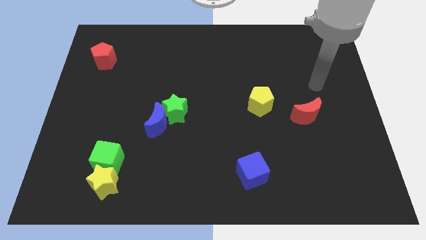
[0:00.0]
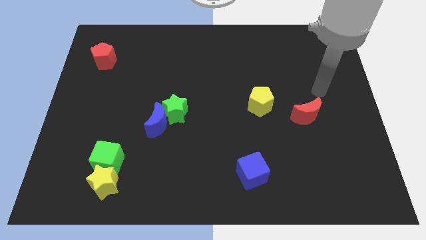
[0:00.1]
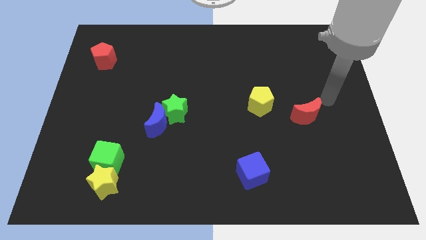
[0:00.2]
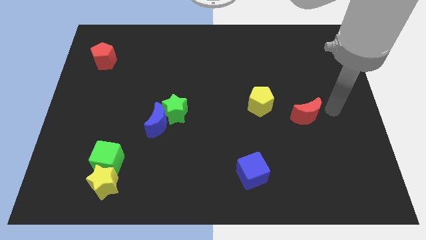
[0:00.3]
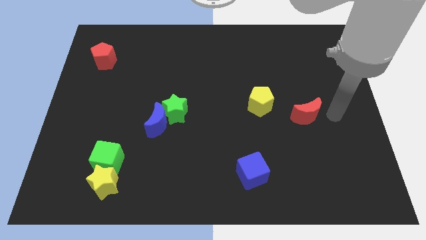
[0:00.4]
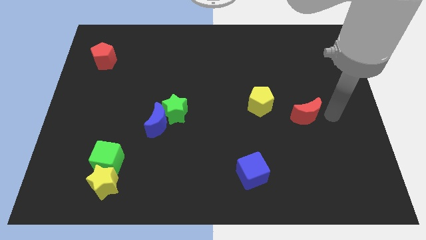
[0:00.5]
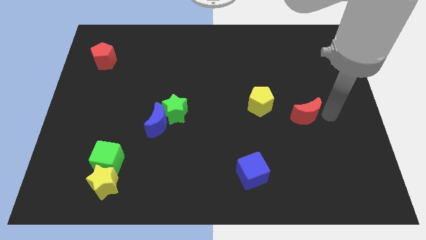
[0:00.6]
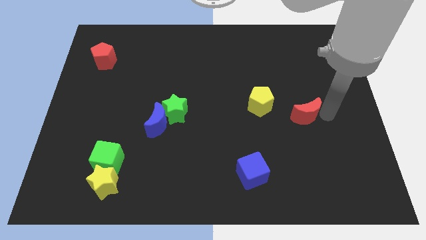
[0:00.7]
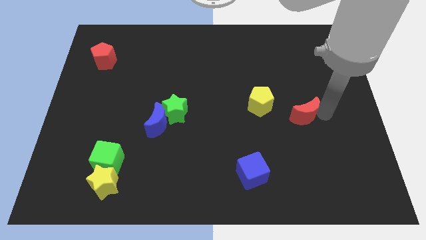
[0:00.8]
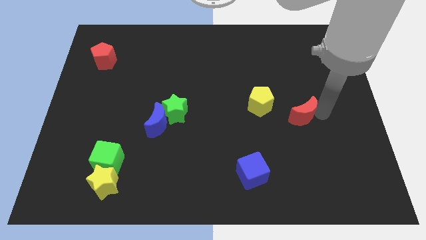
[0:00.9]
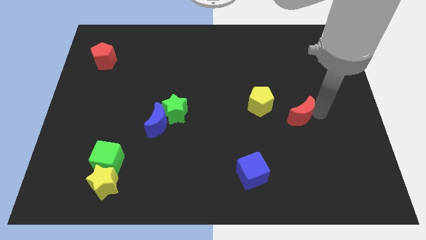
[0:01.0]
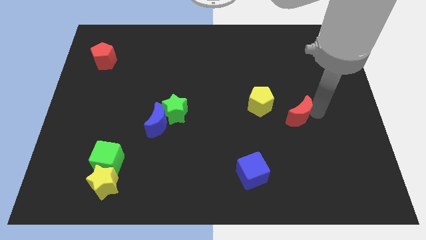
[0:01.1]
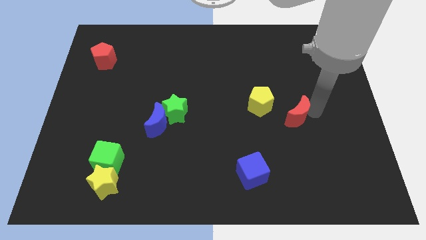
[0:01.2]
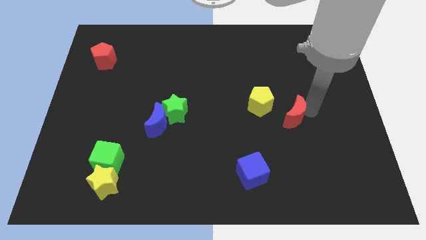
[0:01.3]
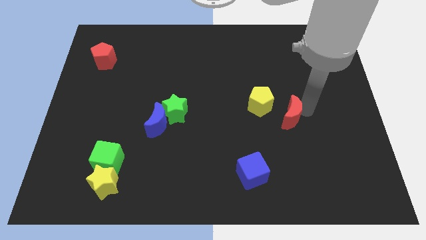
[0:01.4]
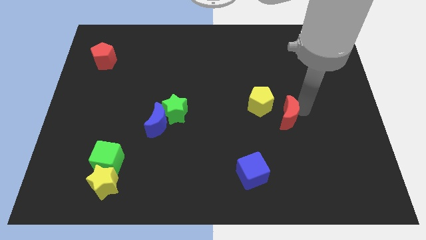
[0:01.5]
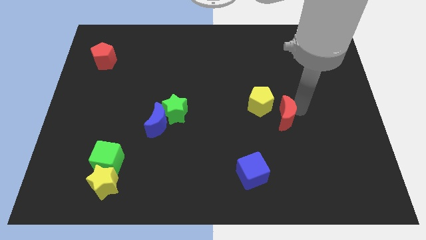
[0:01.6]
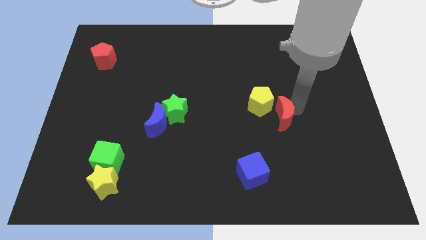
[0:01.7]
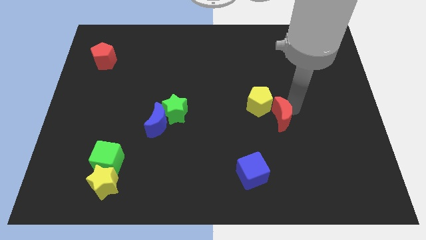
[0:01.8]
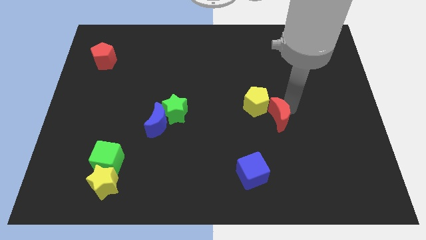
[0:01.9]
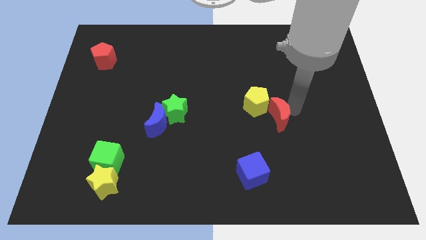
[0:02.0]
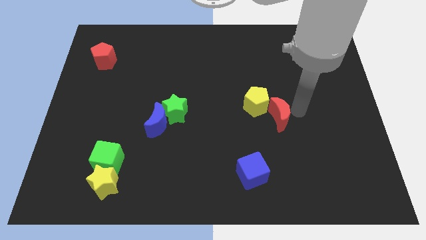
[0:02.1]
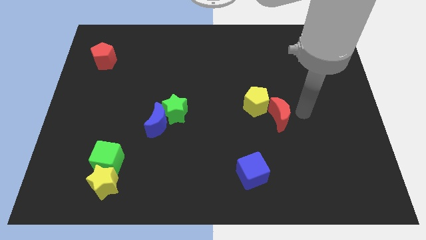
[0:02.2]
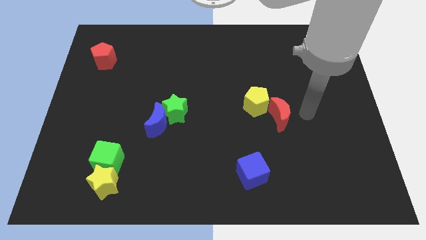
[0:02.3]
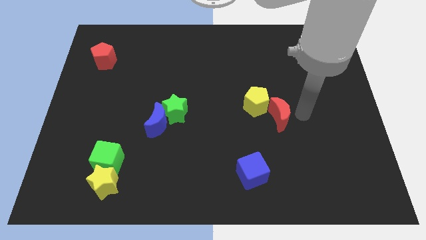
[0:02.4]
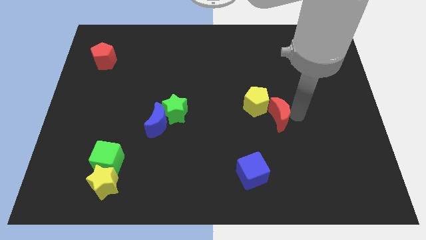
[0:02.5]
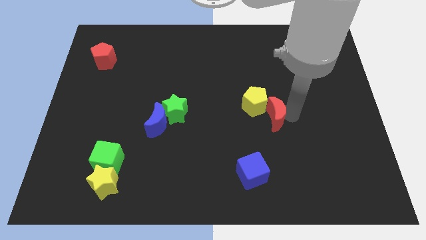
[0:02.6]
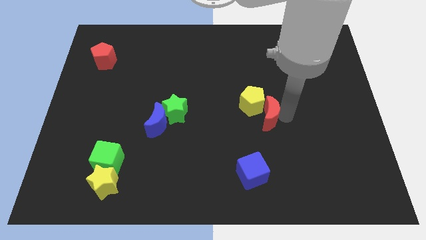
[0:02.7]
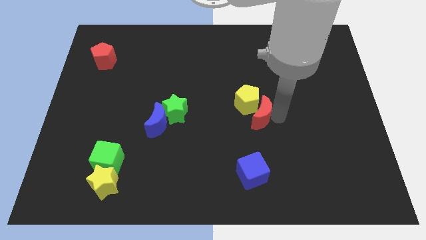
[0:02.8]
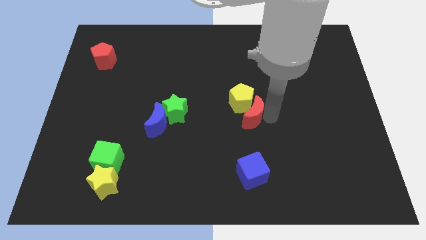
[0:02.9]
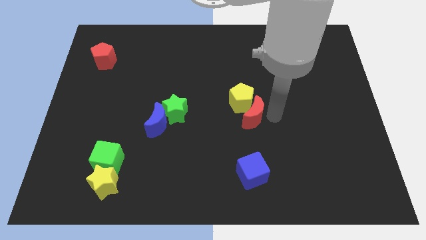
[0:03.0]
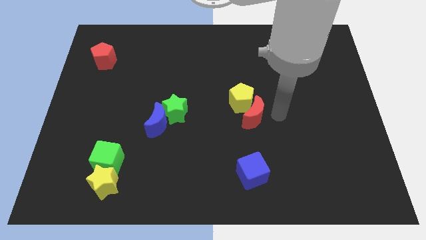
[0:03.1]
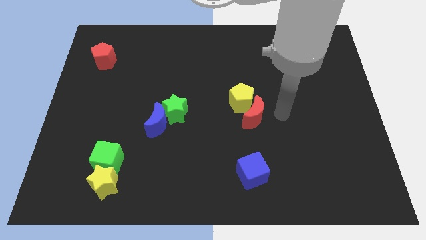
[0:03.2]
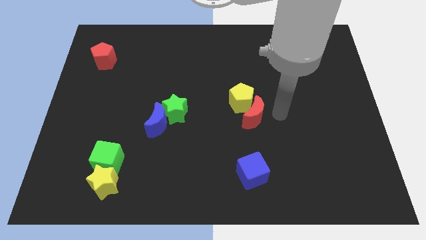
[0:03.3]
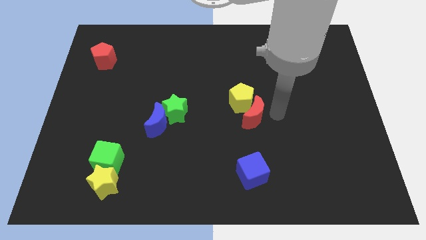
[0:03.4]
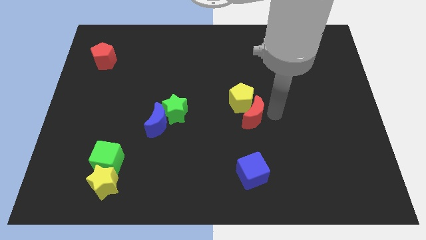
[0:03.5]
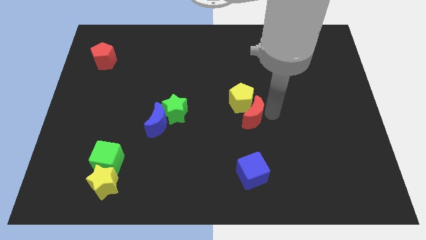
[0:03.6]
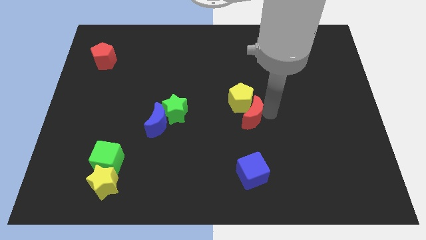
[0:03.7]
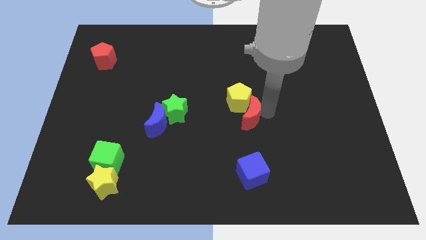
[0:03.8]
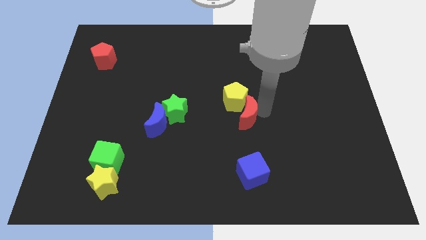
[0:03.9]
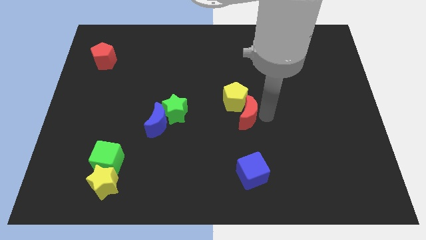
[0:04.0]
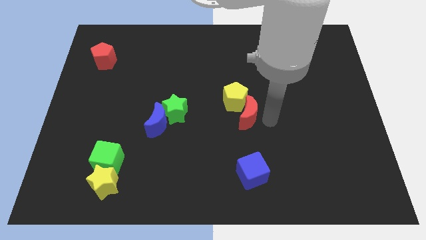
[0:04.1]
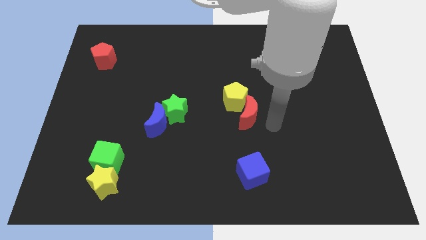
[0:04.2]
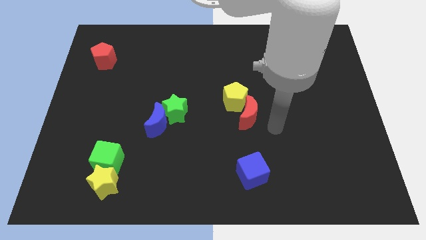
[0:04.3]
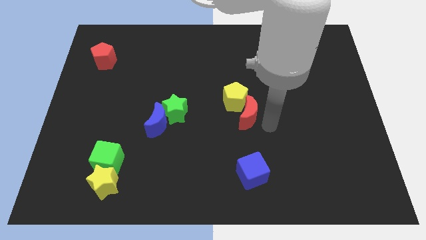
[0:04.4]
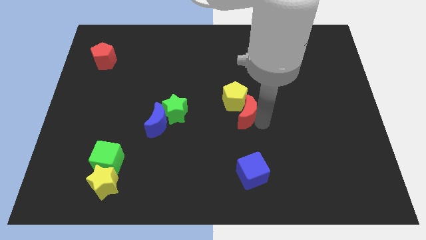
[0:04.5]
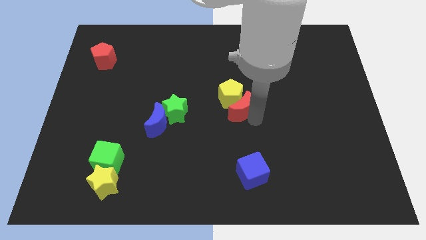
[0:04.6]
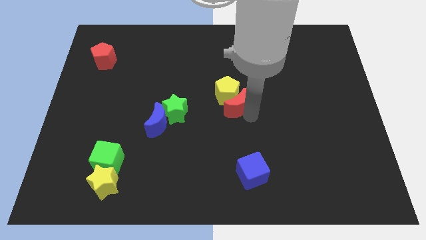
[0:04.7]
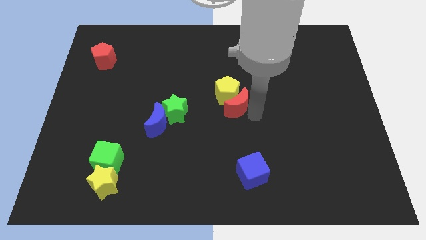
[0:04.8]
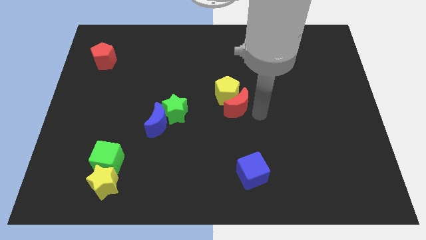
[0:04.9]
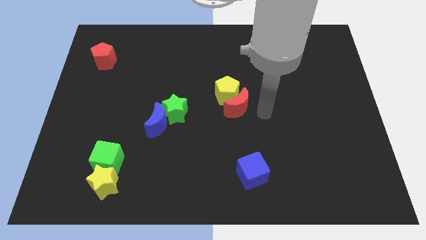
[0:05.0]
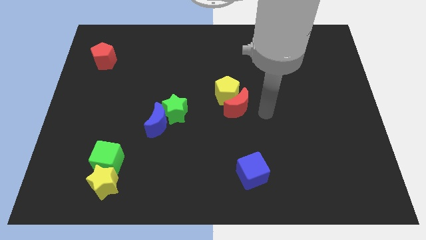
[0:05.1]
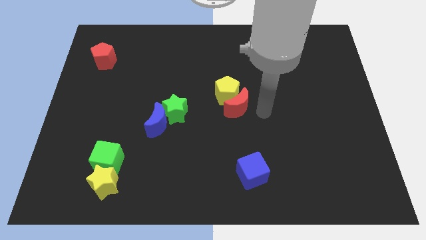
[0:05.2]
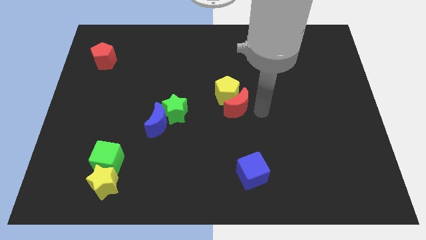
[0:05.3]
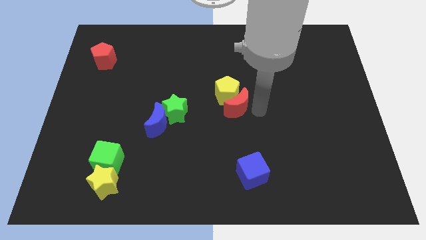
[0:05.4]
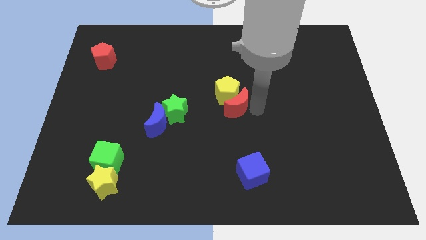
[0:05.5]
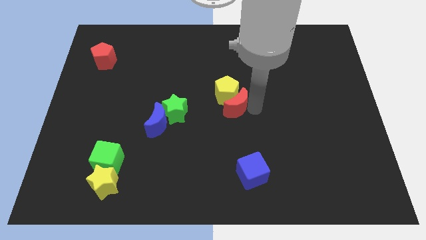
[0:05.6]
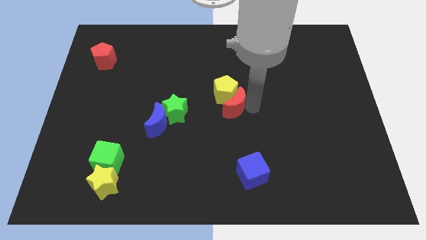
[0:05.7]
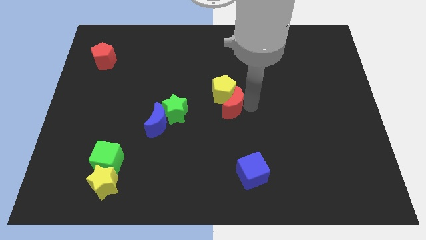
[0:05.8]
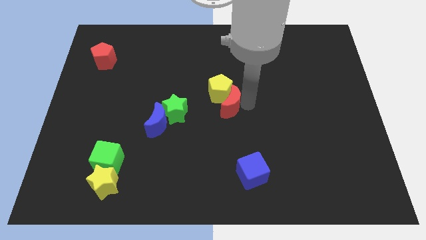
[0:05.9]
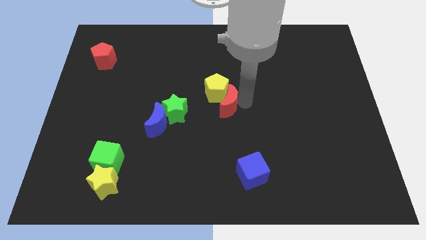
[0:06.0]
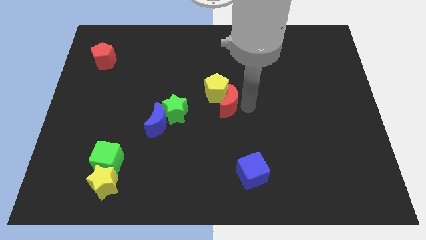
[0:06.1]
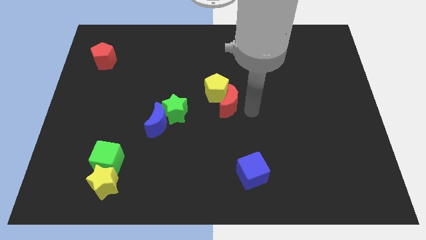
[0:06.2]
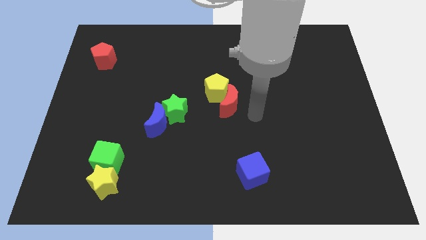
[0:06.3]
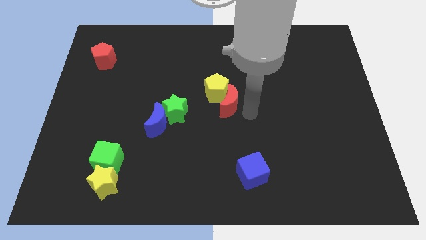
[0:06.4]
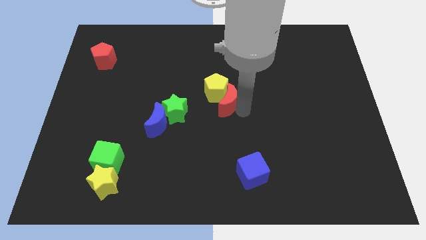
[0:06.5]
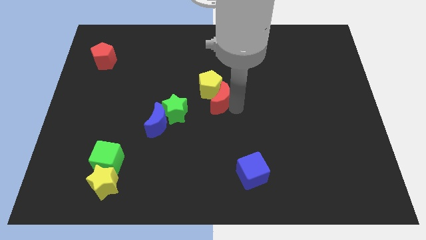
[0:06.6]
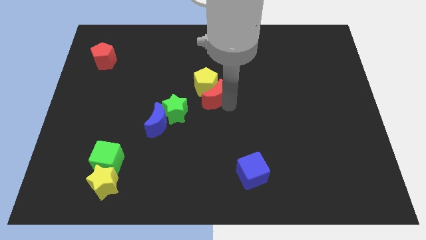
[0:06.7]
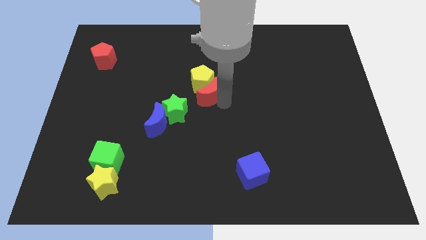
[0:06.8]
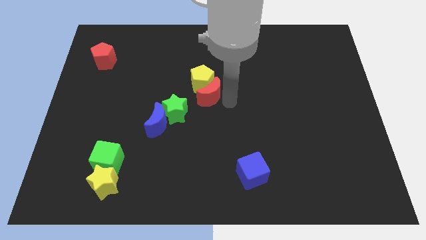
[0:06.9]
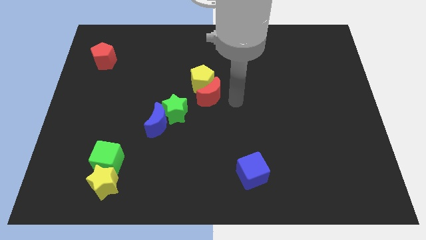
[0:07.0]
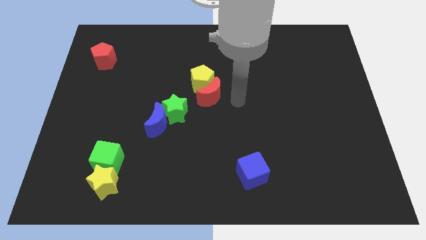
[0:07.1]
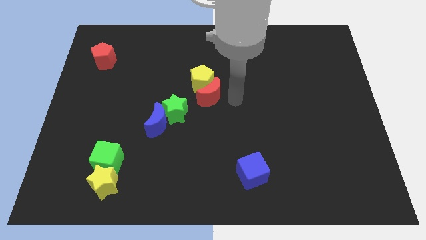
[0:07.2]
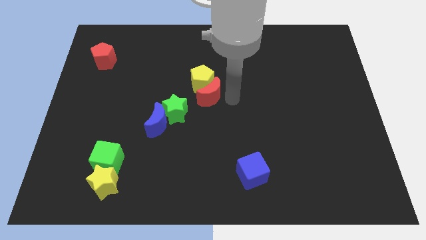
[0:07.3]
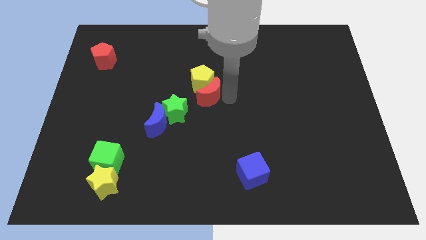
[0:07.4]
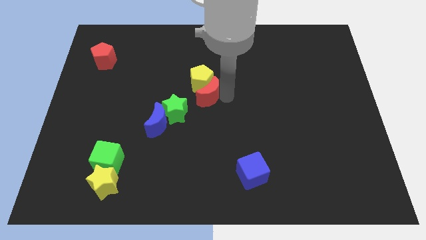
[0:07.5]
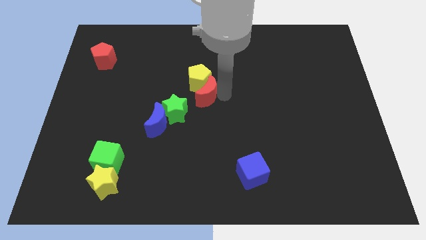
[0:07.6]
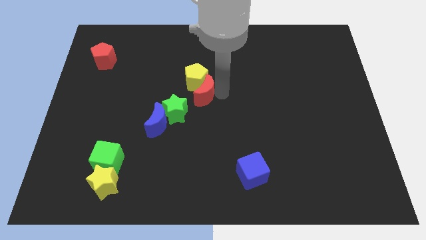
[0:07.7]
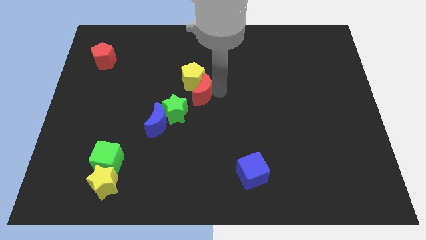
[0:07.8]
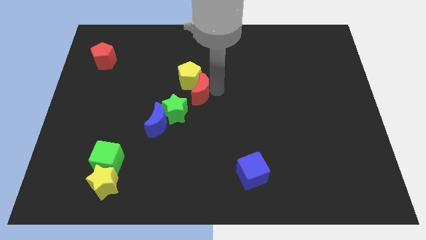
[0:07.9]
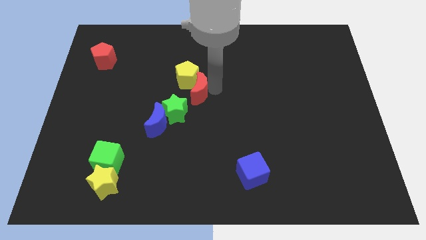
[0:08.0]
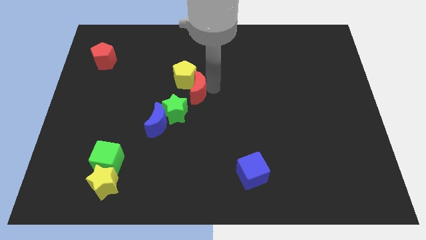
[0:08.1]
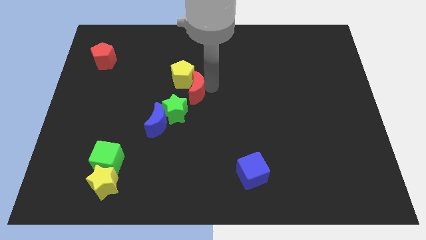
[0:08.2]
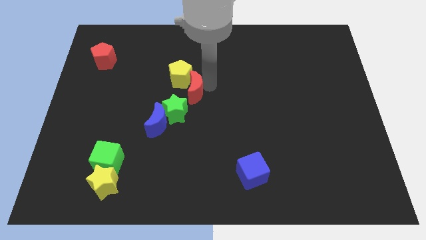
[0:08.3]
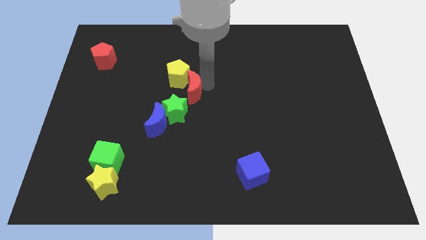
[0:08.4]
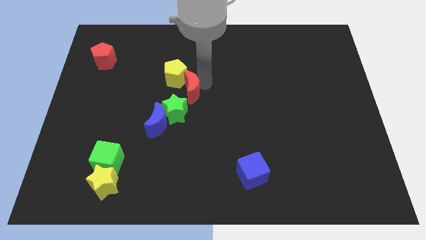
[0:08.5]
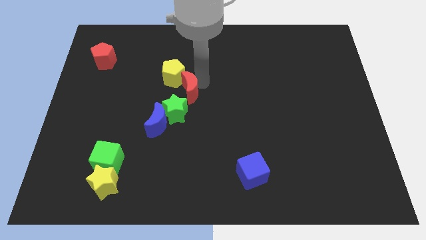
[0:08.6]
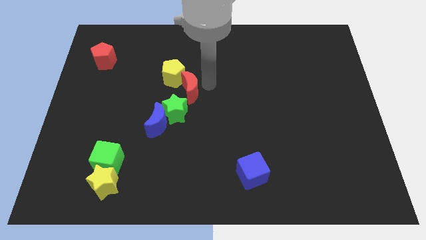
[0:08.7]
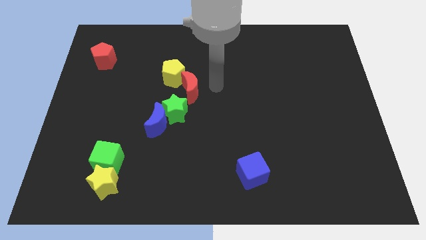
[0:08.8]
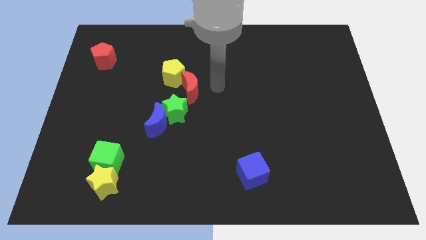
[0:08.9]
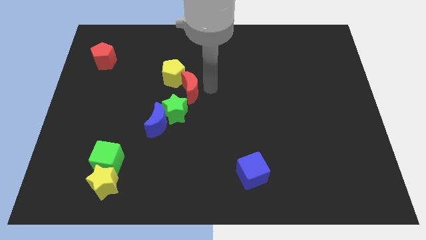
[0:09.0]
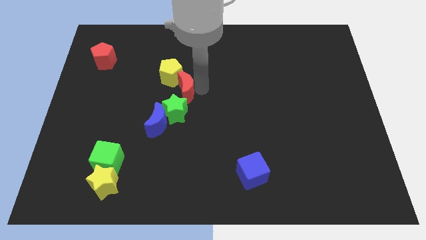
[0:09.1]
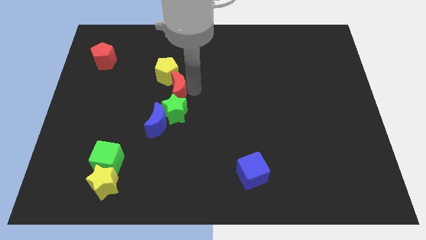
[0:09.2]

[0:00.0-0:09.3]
slide the red moon to the top left of the green star
